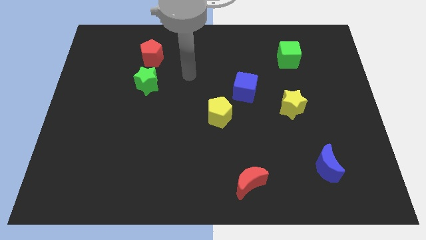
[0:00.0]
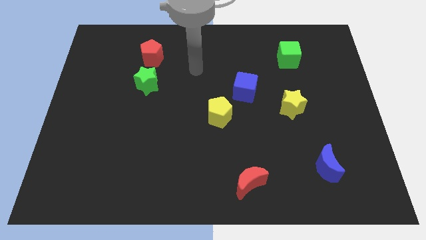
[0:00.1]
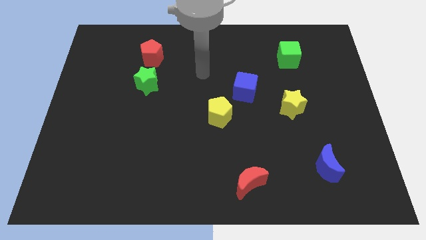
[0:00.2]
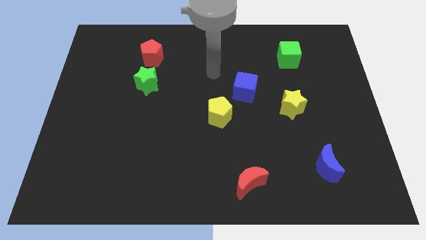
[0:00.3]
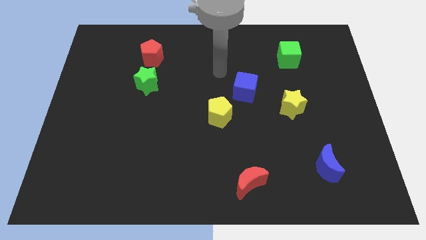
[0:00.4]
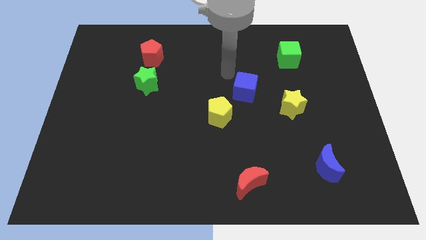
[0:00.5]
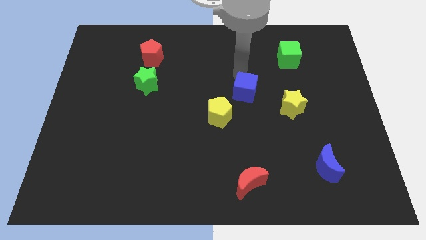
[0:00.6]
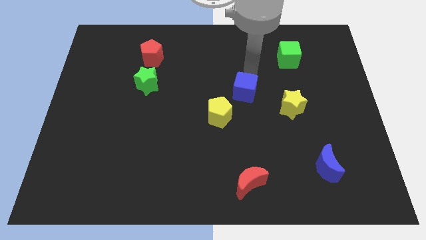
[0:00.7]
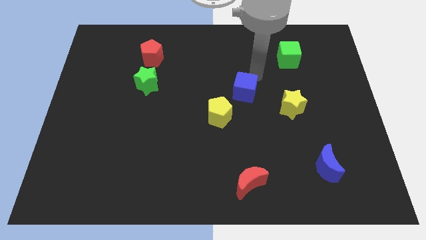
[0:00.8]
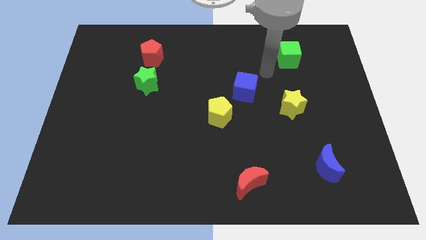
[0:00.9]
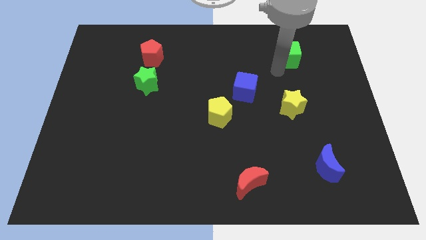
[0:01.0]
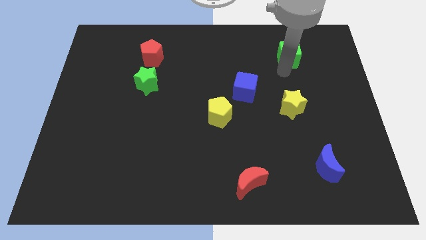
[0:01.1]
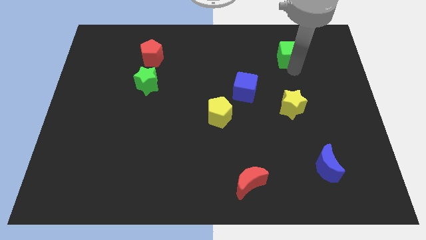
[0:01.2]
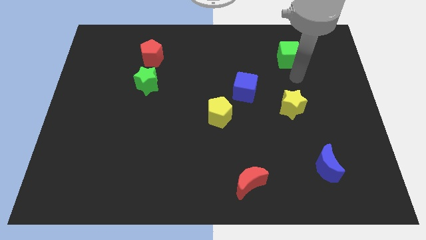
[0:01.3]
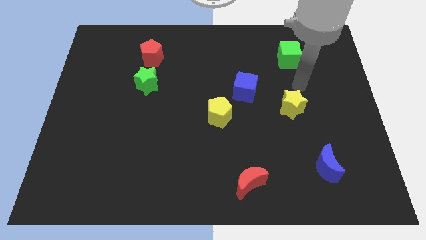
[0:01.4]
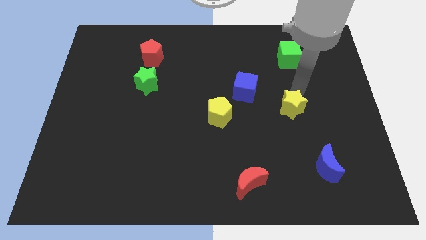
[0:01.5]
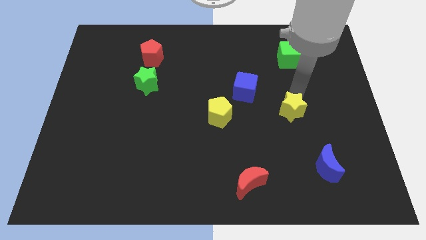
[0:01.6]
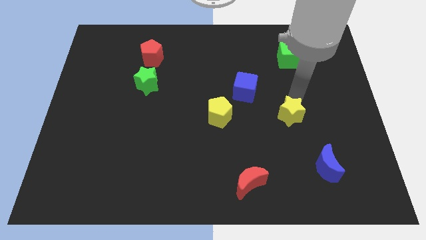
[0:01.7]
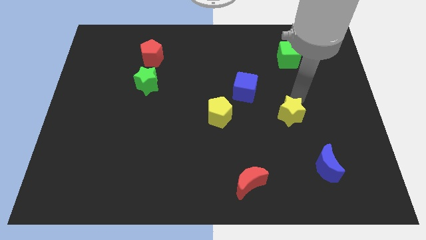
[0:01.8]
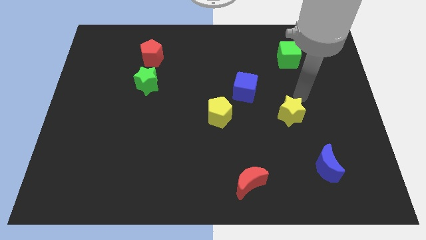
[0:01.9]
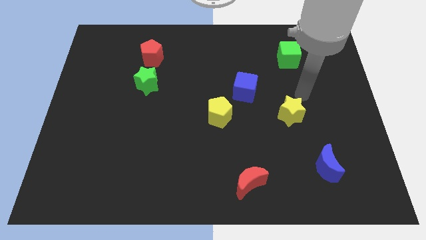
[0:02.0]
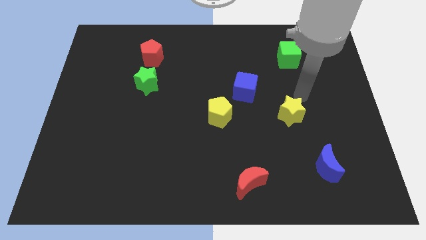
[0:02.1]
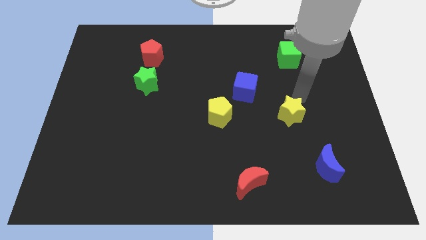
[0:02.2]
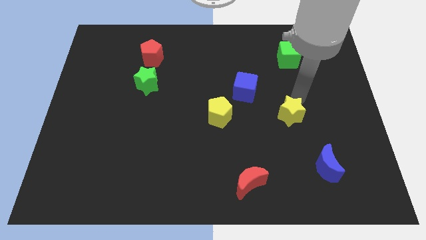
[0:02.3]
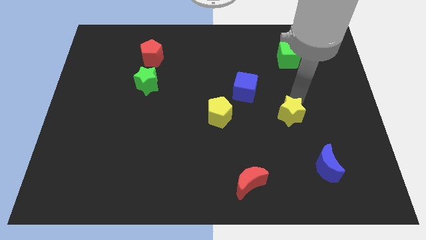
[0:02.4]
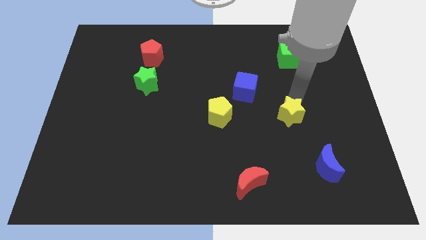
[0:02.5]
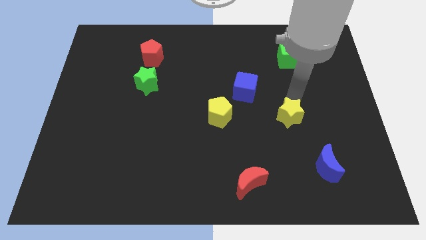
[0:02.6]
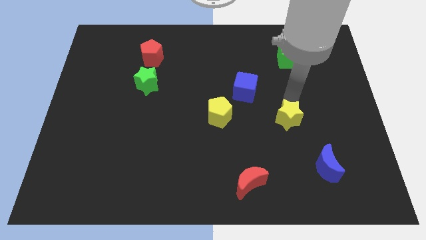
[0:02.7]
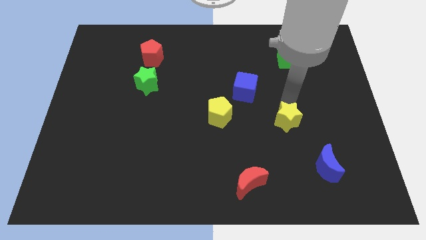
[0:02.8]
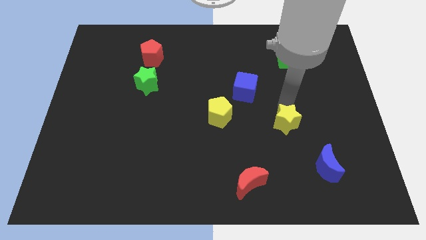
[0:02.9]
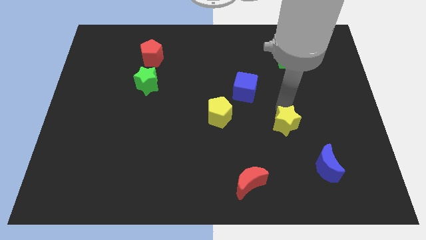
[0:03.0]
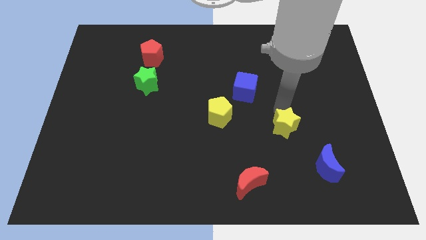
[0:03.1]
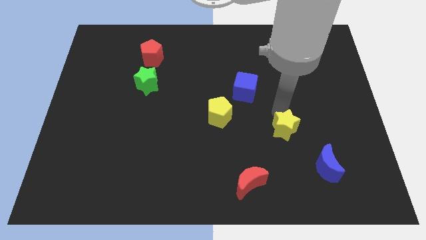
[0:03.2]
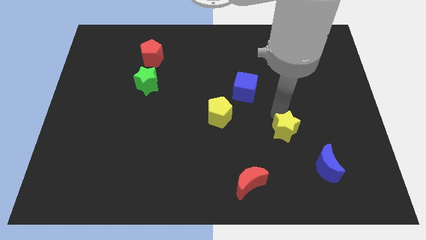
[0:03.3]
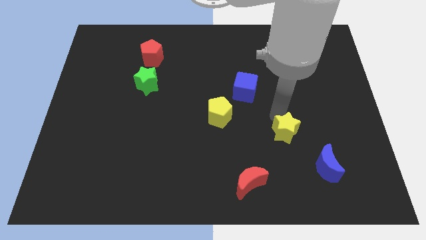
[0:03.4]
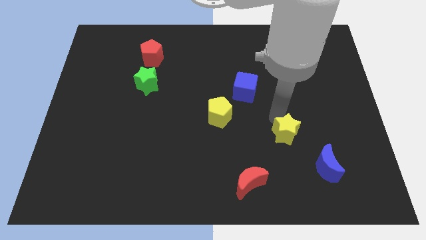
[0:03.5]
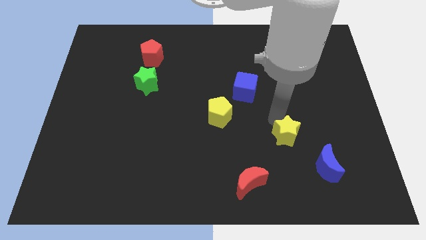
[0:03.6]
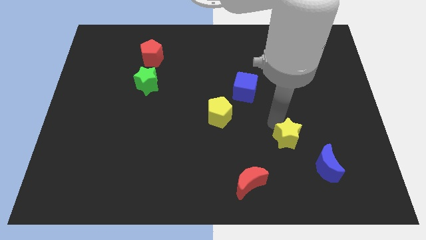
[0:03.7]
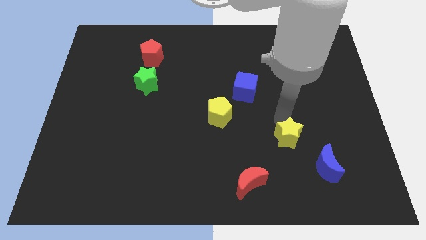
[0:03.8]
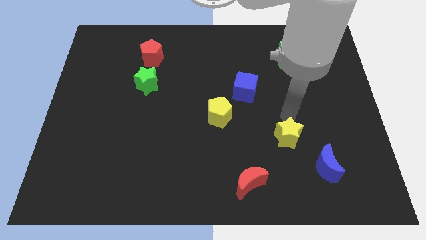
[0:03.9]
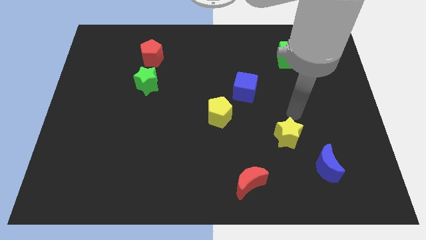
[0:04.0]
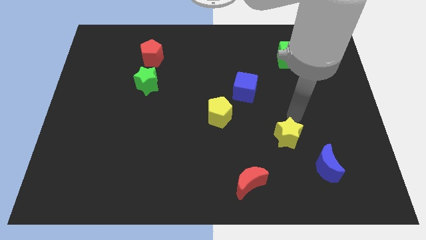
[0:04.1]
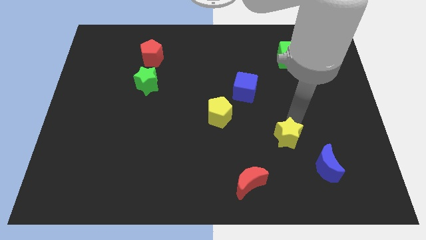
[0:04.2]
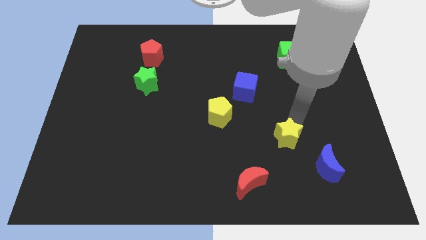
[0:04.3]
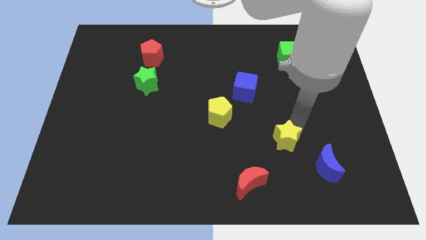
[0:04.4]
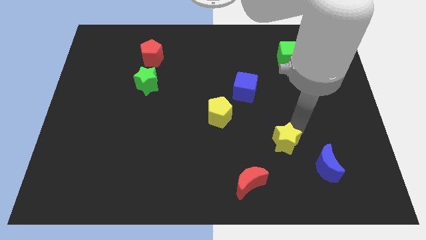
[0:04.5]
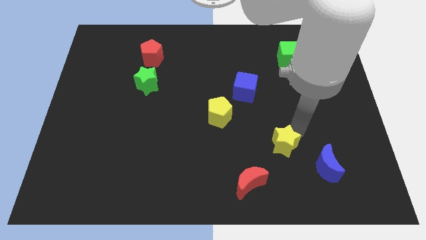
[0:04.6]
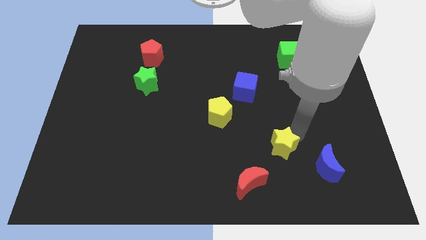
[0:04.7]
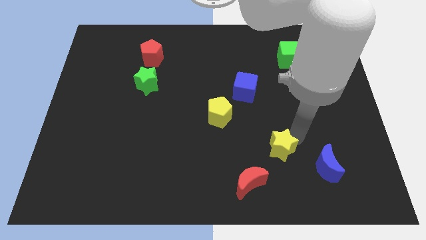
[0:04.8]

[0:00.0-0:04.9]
push the yellow star left of the blue moon

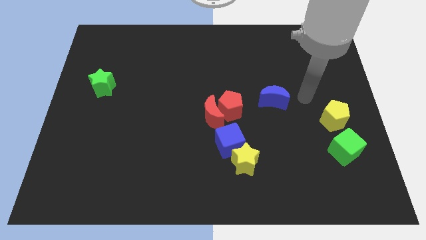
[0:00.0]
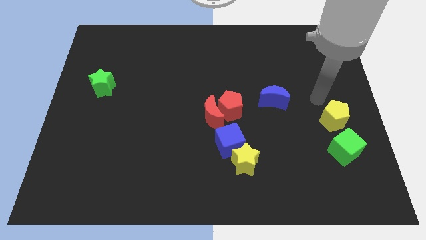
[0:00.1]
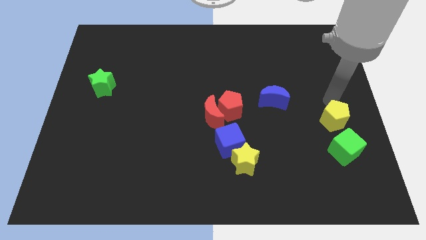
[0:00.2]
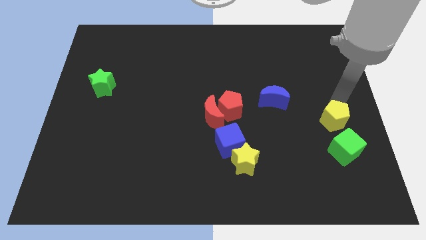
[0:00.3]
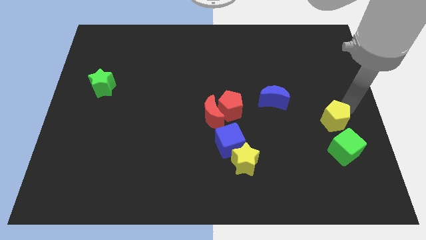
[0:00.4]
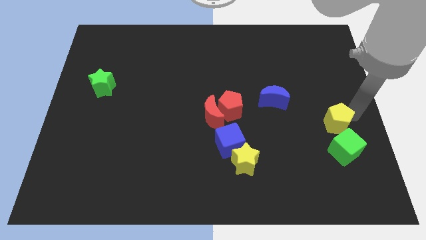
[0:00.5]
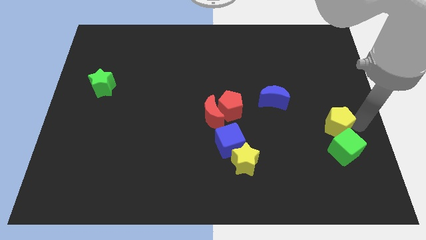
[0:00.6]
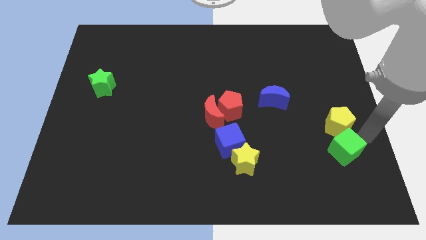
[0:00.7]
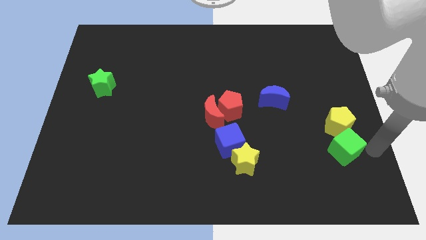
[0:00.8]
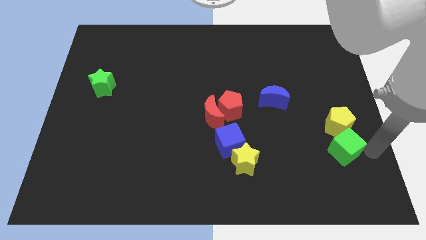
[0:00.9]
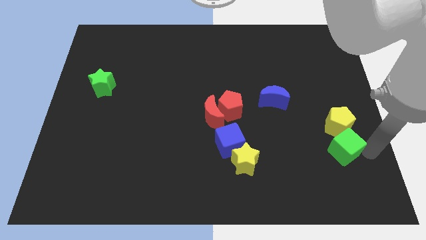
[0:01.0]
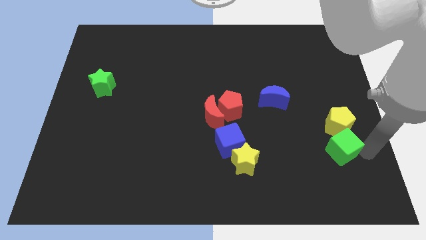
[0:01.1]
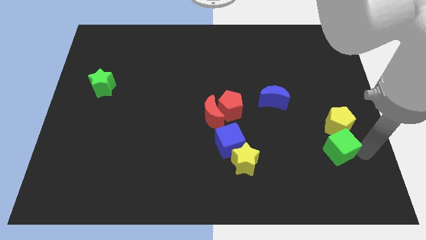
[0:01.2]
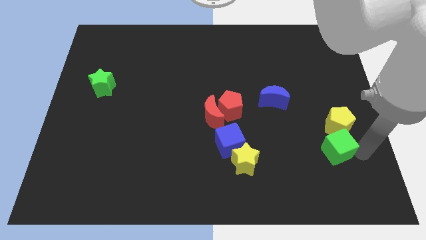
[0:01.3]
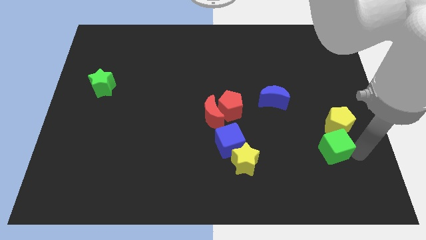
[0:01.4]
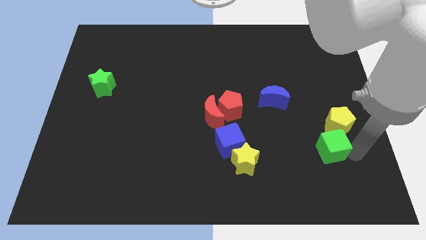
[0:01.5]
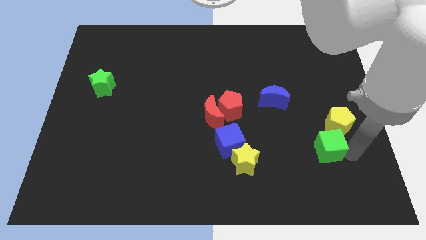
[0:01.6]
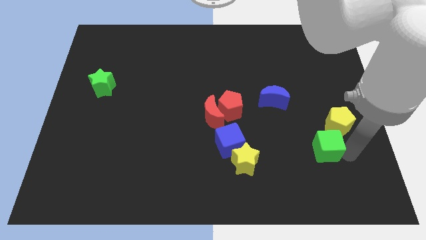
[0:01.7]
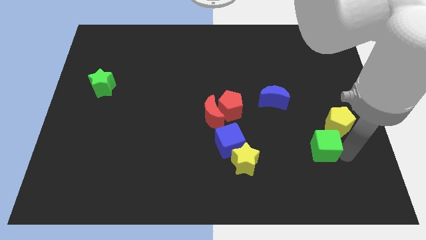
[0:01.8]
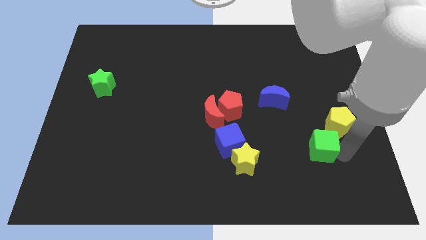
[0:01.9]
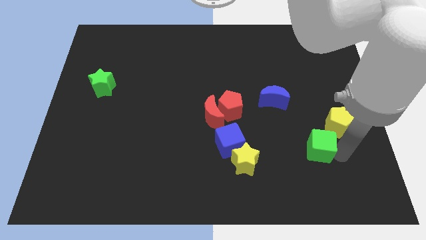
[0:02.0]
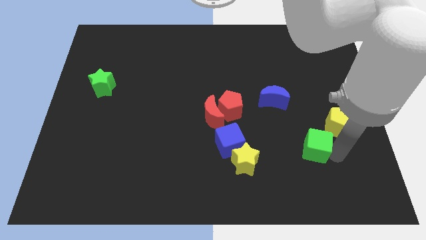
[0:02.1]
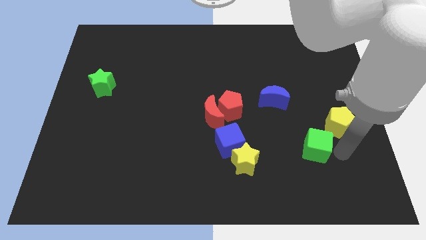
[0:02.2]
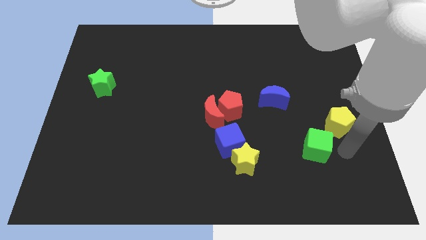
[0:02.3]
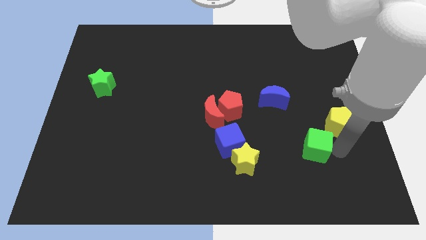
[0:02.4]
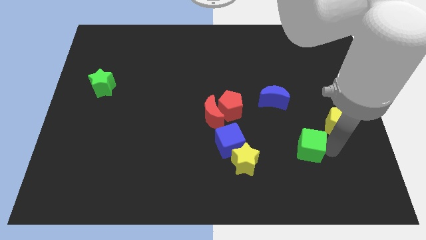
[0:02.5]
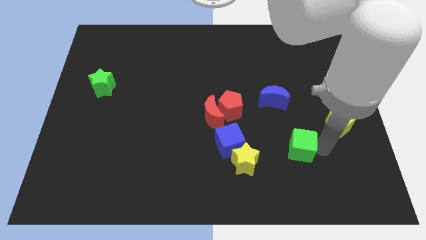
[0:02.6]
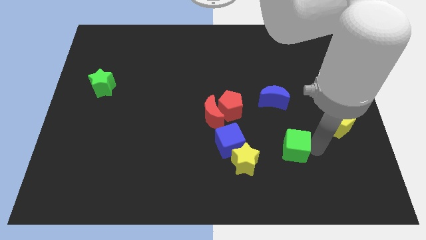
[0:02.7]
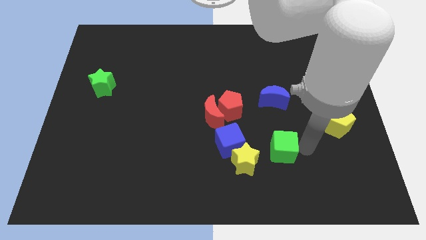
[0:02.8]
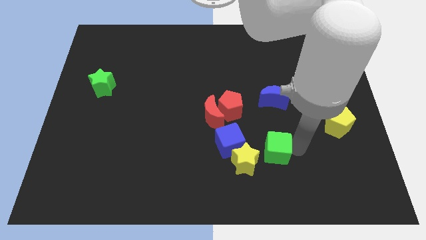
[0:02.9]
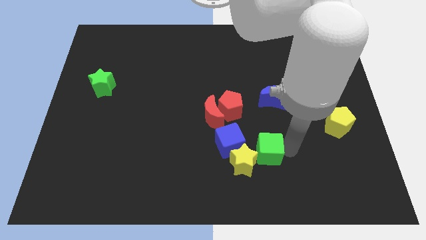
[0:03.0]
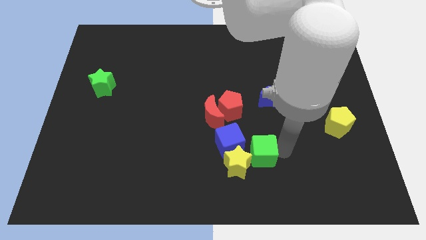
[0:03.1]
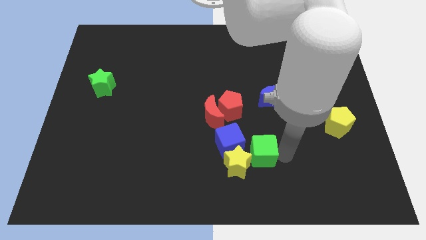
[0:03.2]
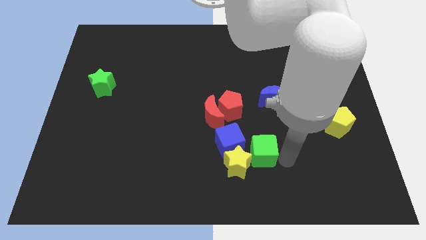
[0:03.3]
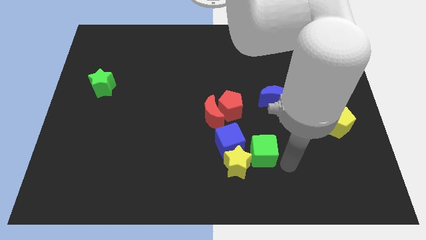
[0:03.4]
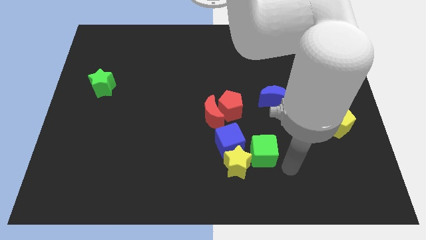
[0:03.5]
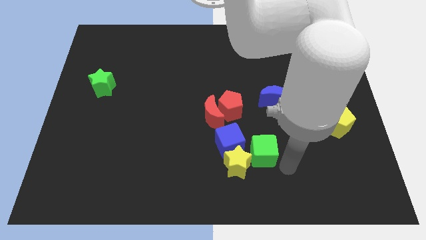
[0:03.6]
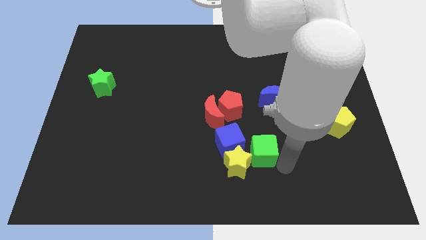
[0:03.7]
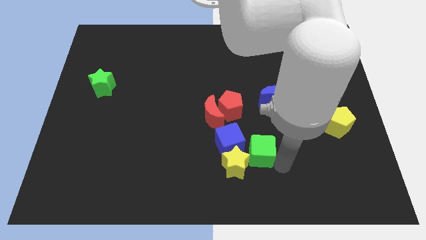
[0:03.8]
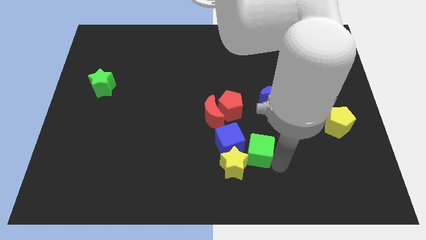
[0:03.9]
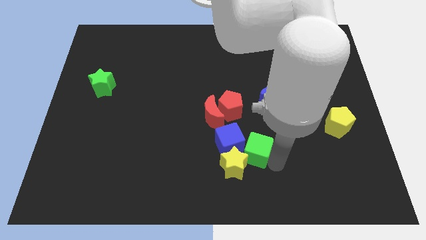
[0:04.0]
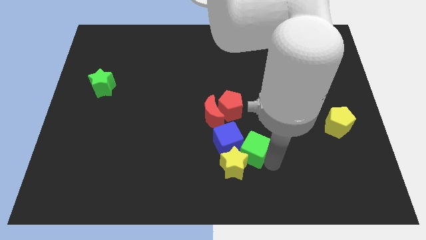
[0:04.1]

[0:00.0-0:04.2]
put the green cube to the bottom right side of the red moon
